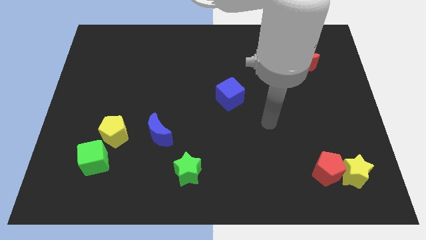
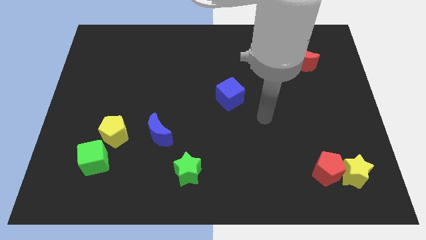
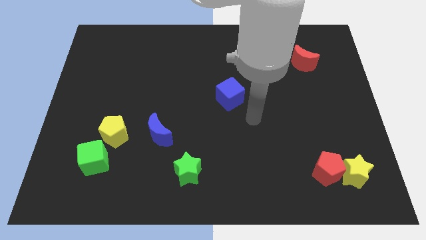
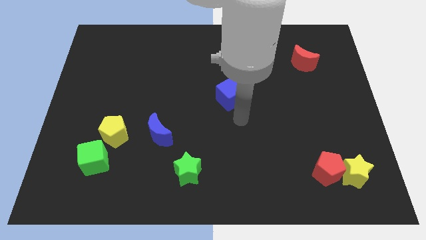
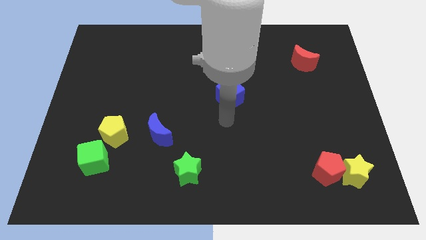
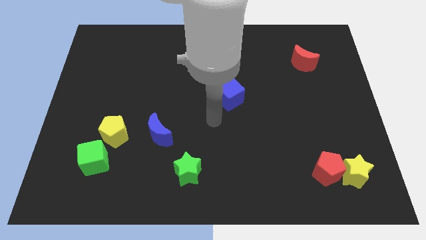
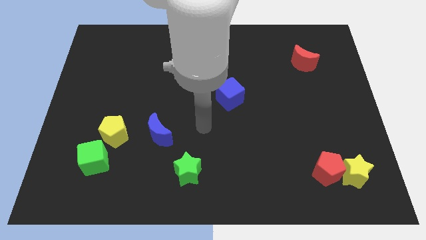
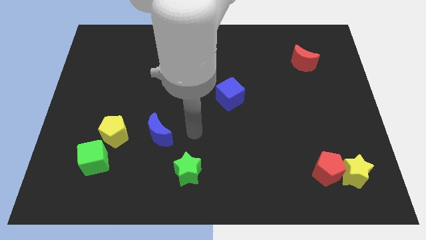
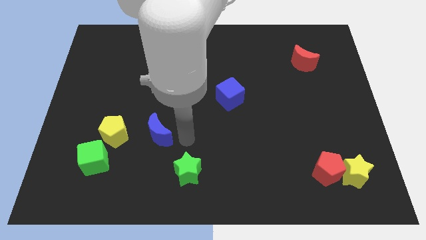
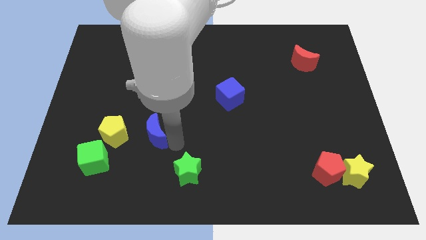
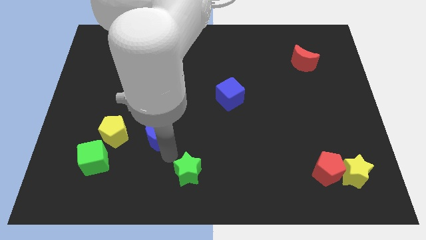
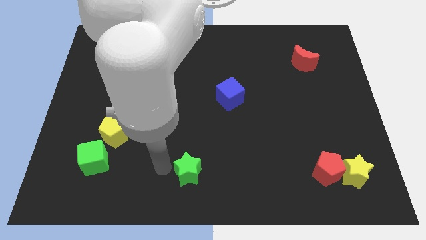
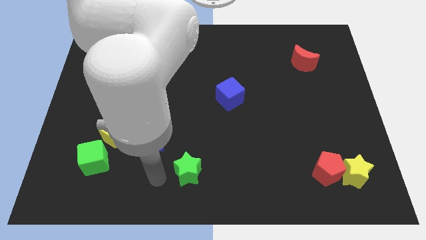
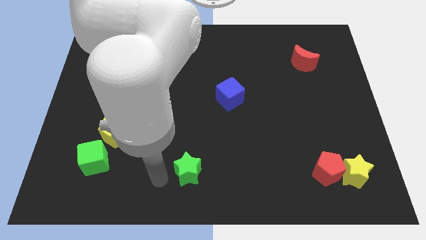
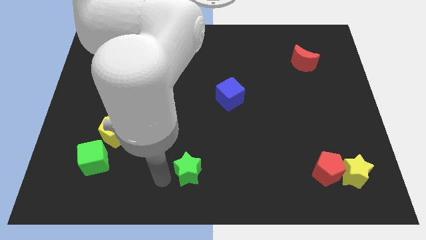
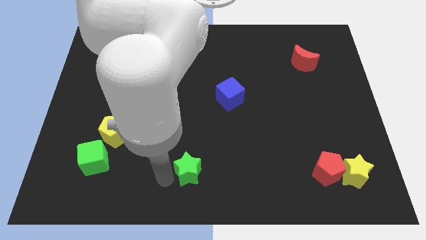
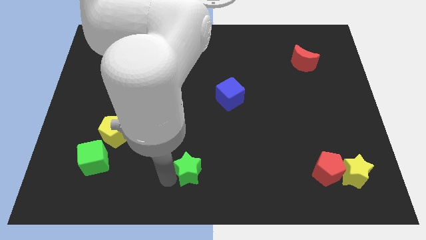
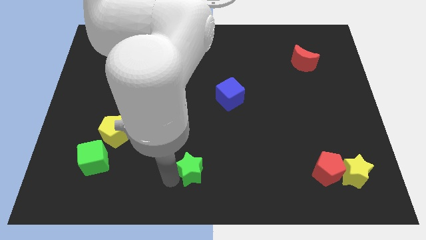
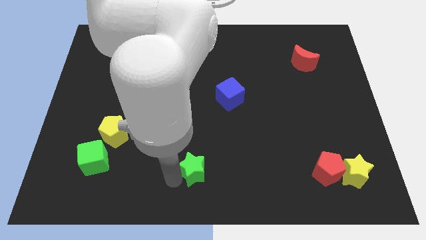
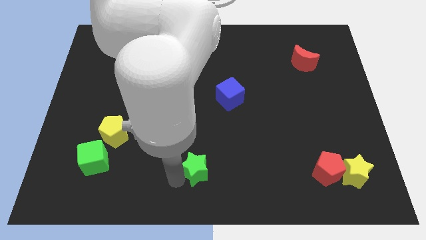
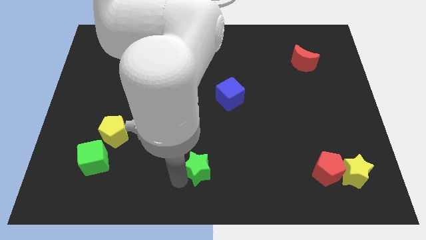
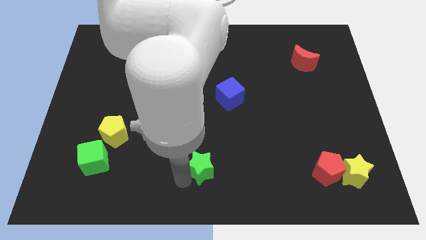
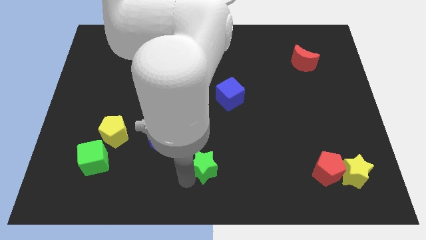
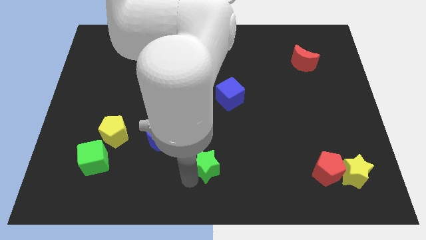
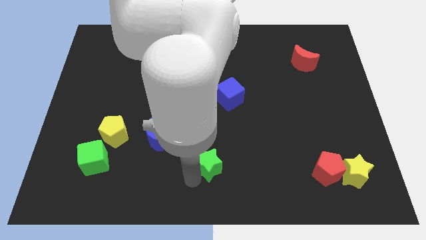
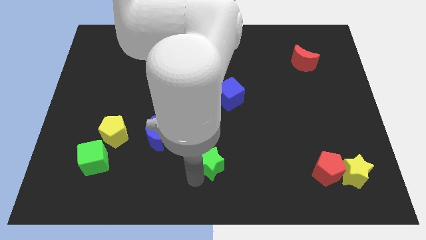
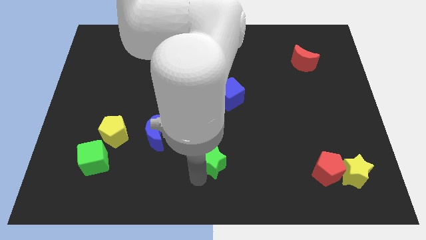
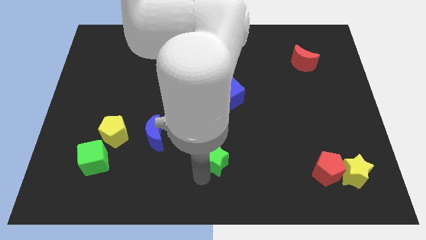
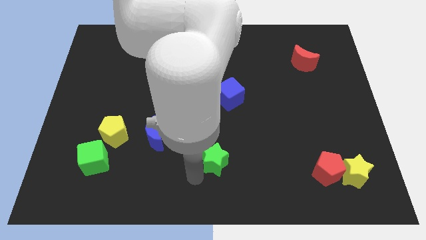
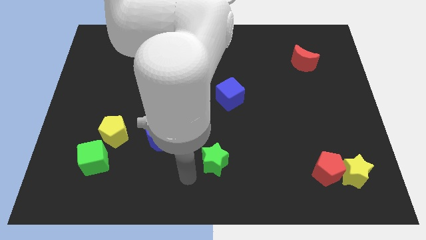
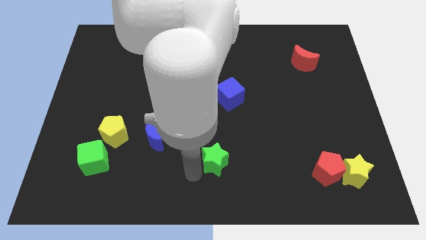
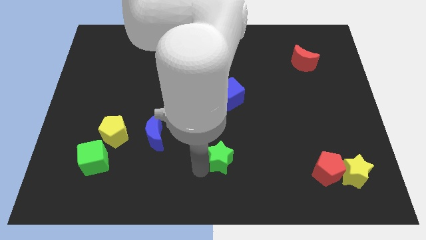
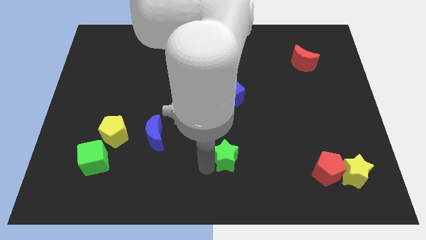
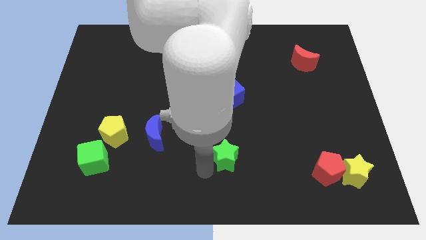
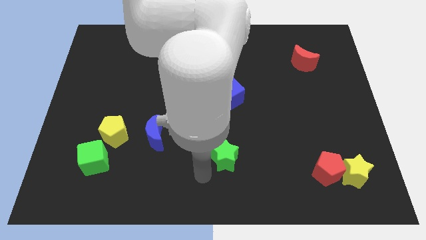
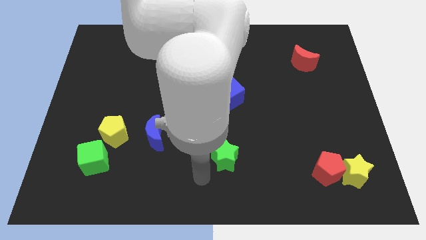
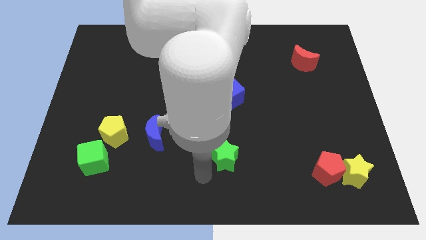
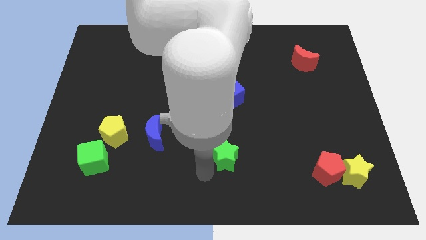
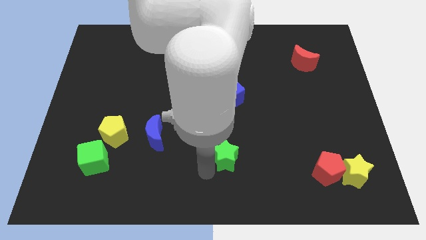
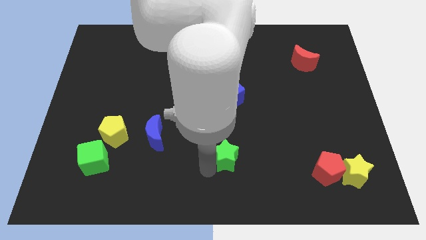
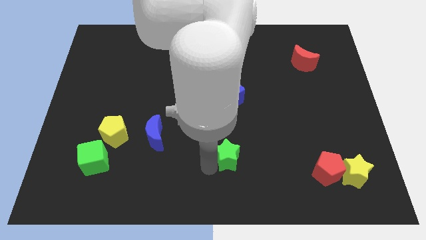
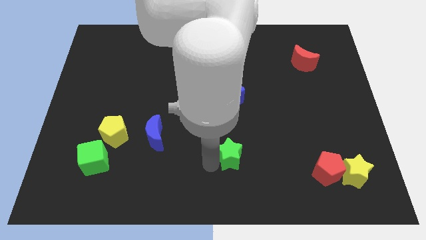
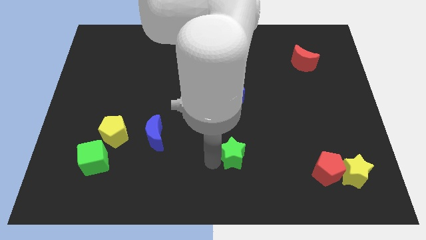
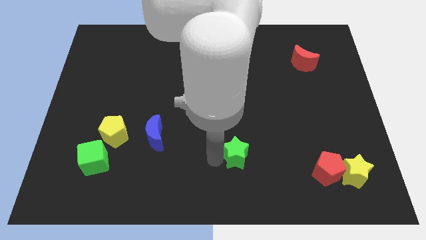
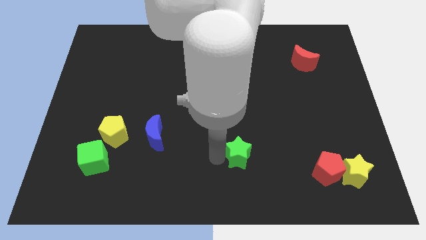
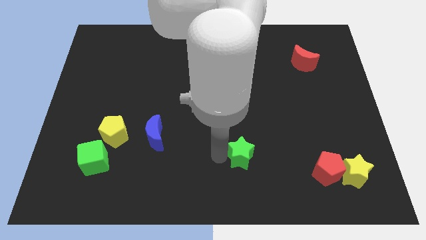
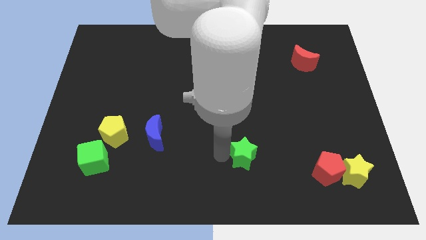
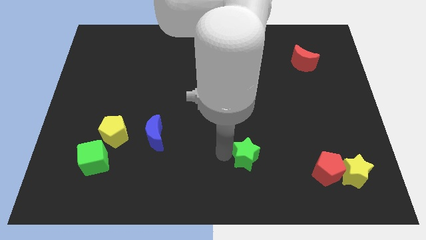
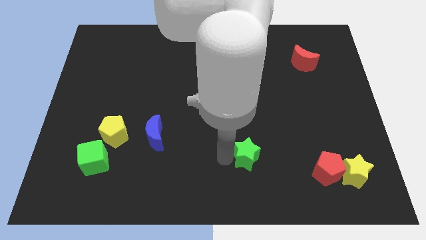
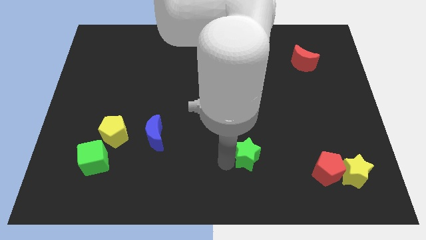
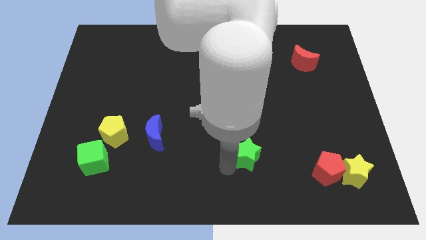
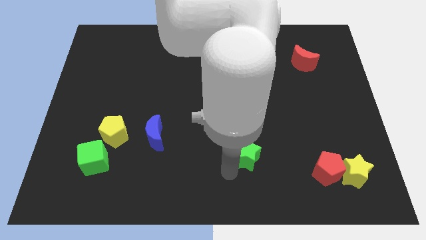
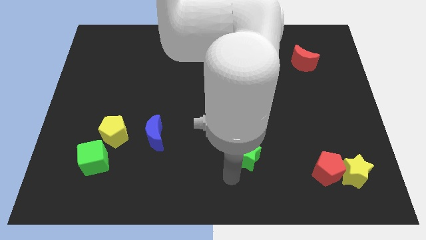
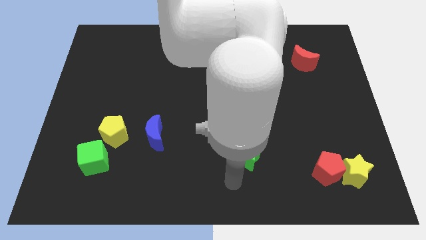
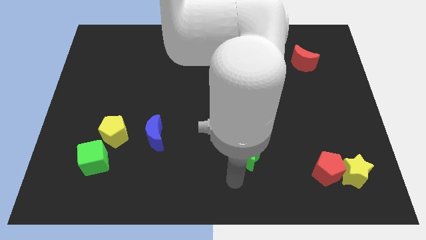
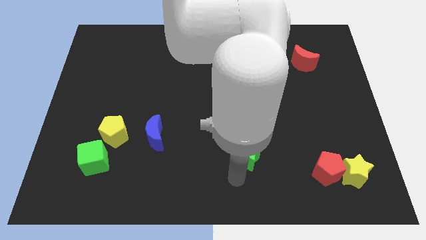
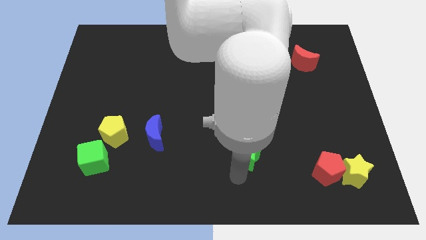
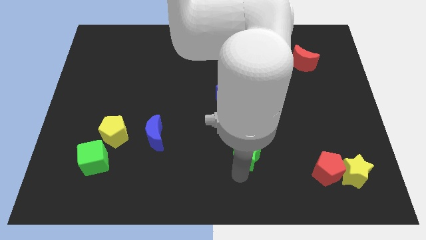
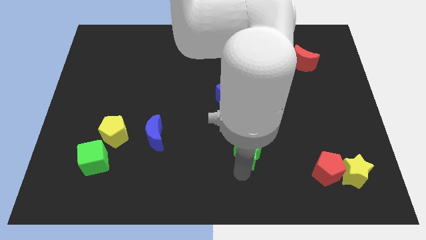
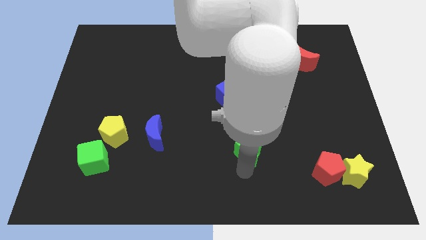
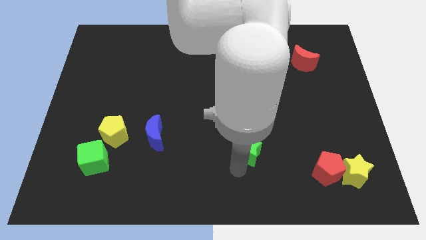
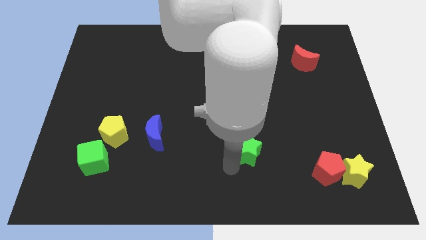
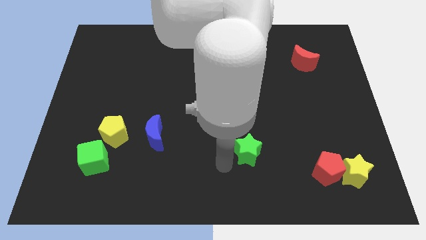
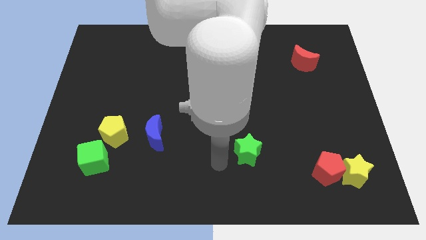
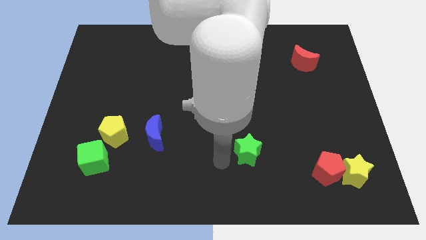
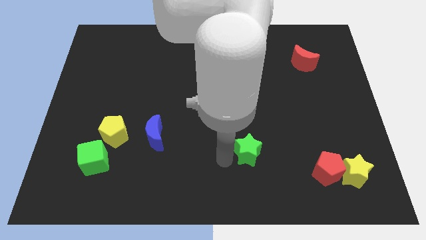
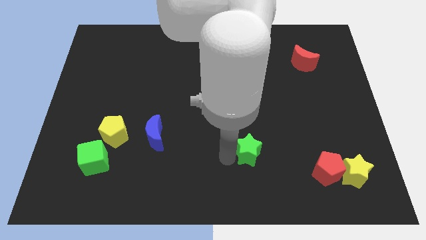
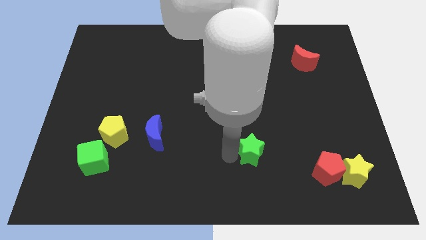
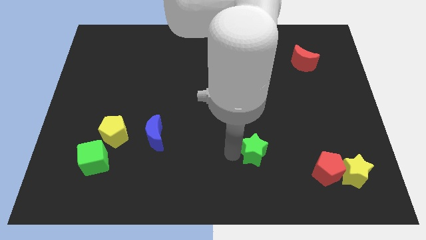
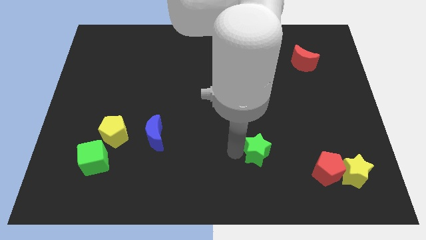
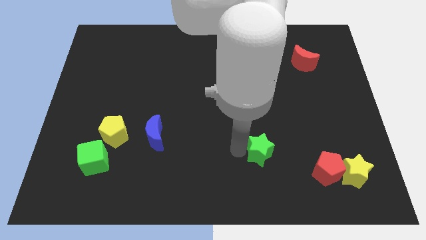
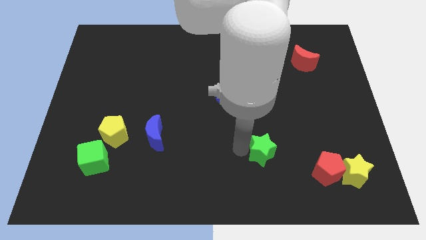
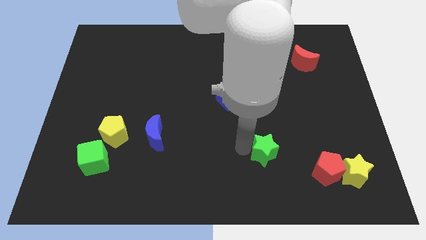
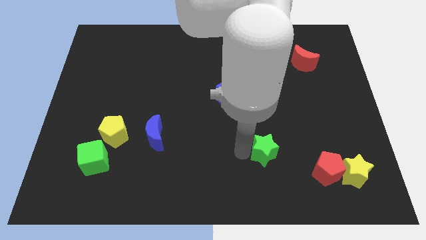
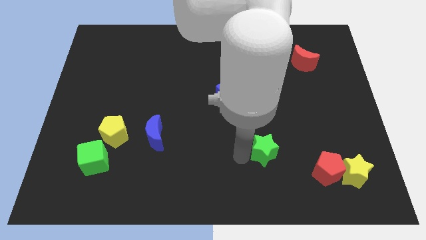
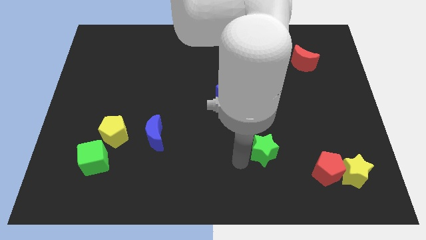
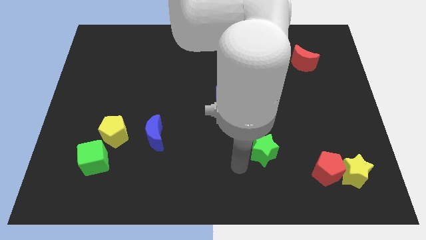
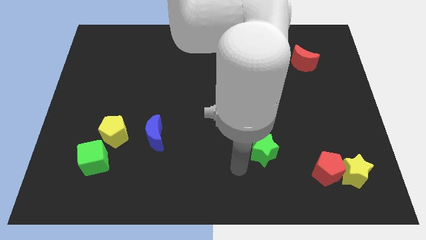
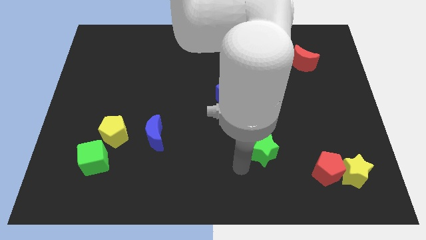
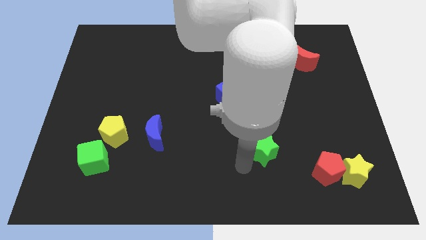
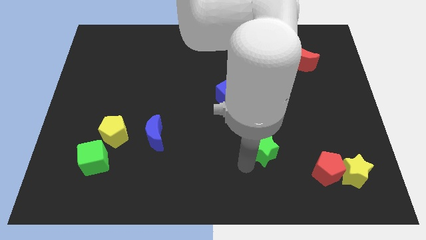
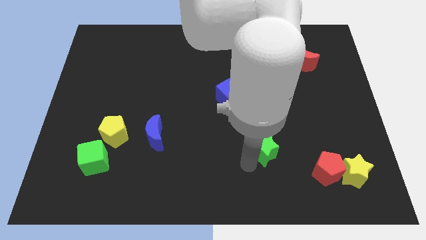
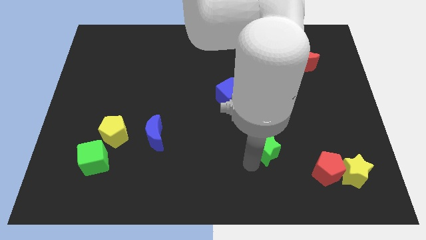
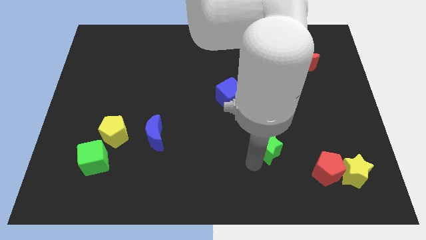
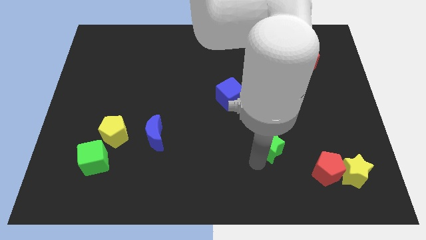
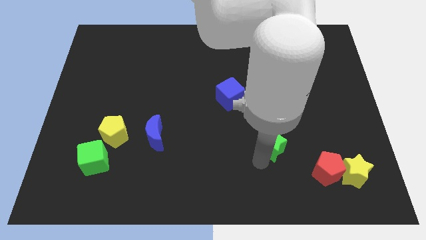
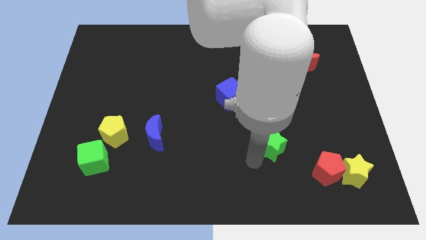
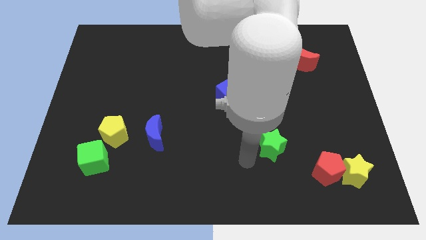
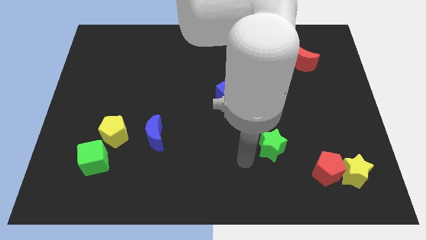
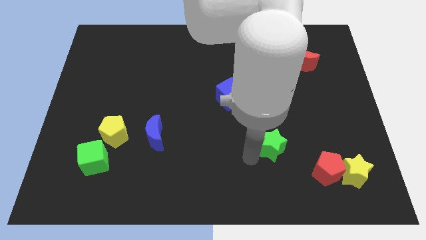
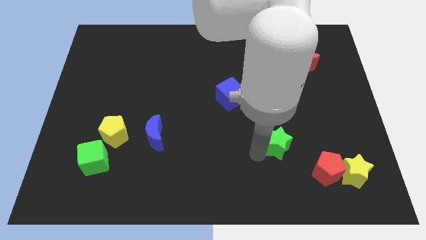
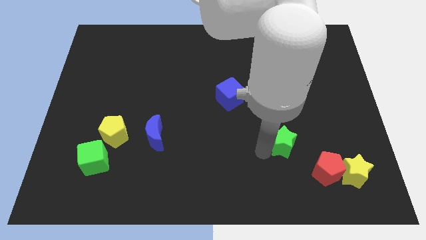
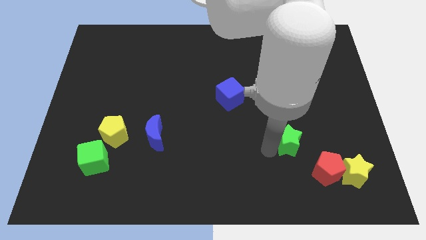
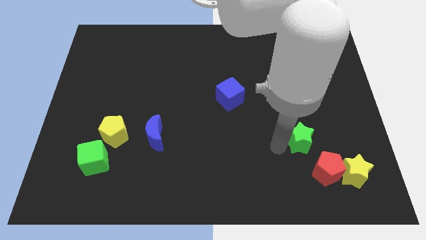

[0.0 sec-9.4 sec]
slide the green star to the top of the red pentagon
